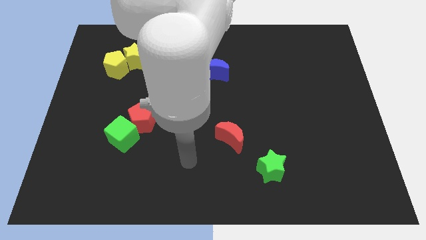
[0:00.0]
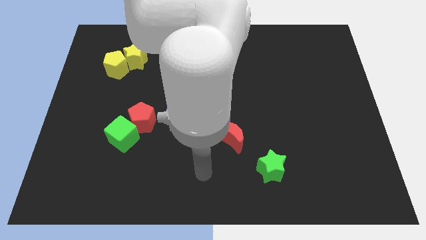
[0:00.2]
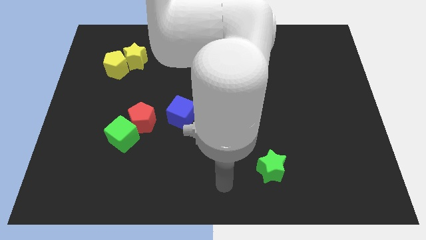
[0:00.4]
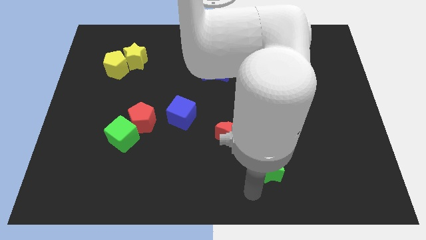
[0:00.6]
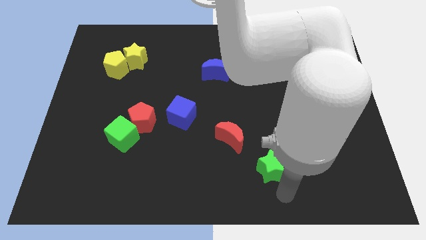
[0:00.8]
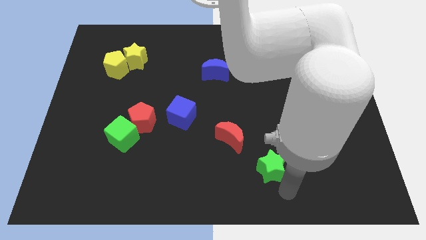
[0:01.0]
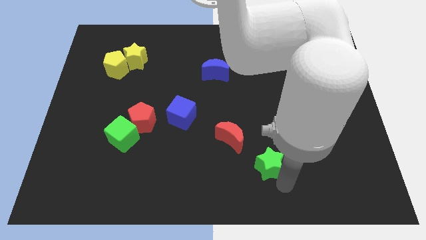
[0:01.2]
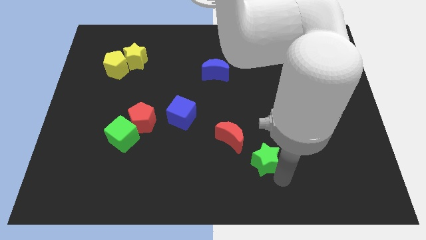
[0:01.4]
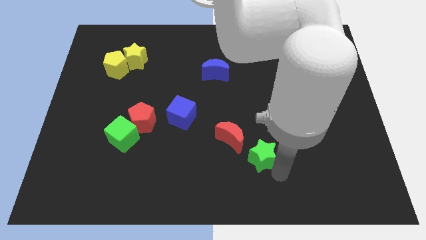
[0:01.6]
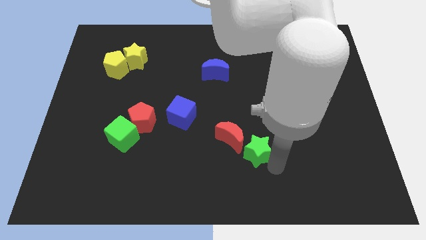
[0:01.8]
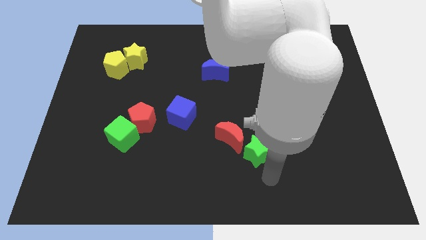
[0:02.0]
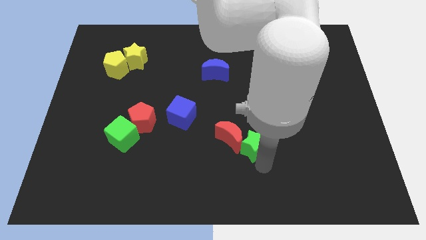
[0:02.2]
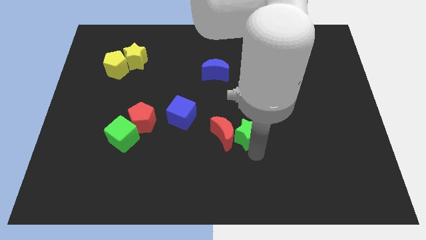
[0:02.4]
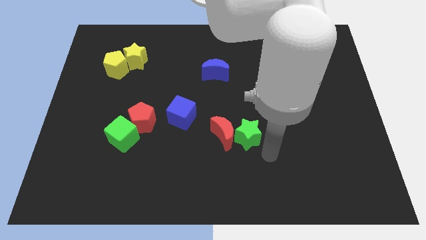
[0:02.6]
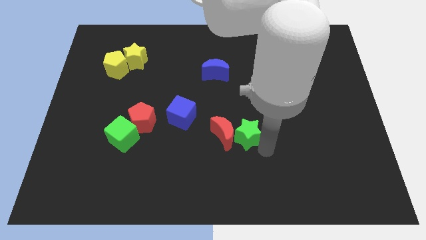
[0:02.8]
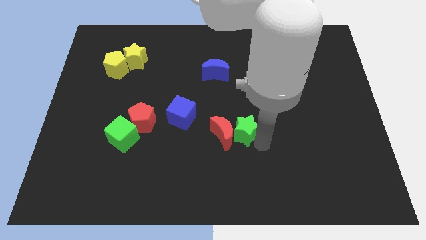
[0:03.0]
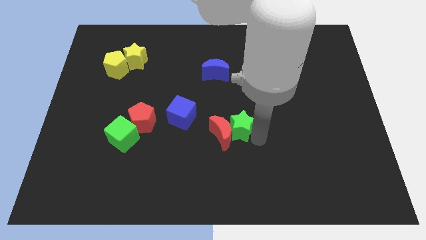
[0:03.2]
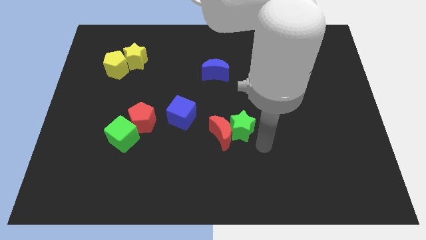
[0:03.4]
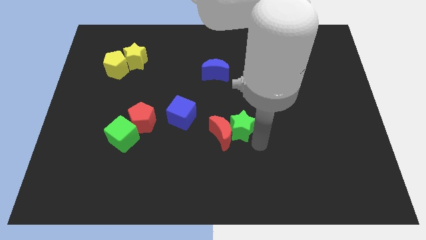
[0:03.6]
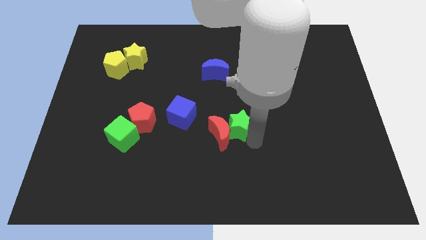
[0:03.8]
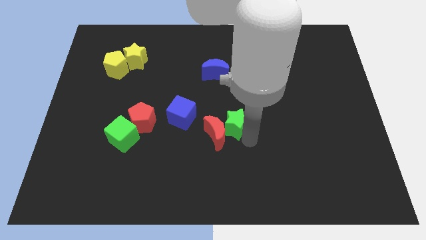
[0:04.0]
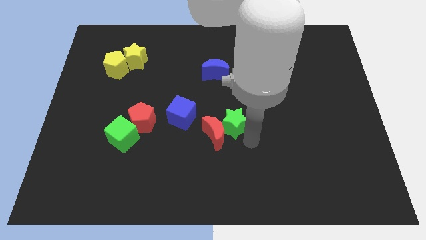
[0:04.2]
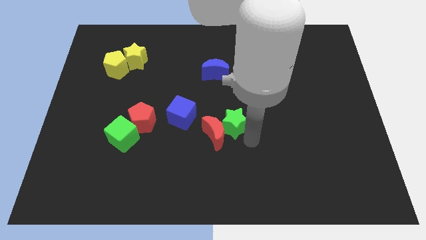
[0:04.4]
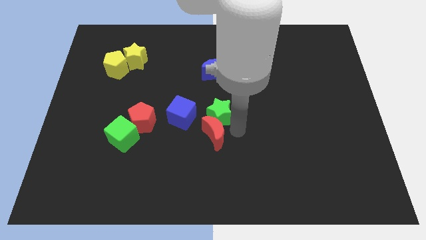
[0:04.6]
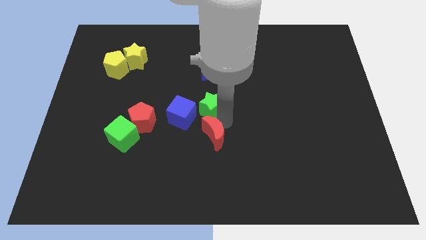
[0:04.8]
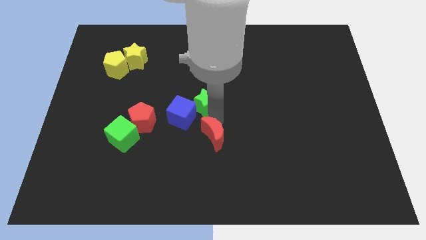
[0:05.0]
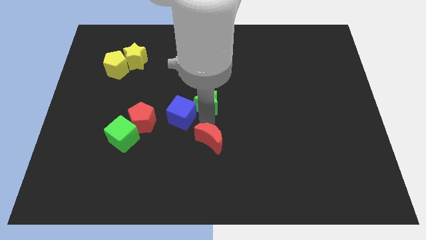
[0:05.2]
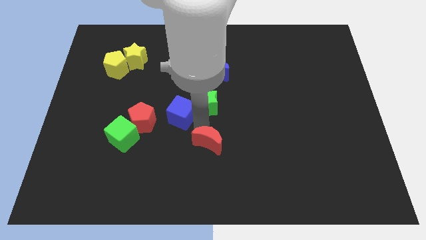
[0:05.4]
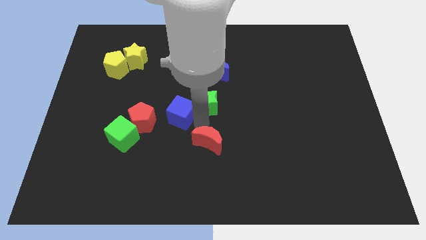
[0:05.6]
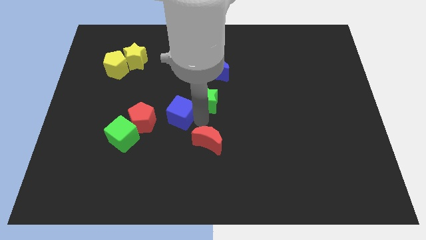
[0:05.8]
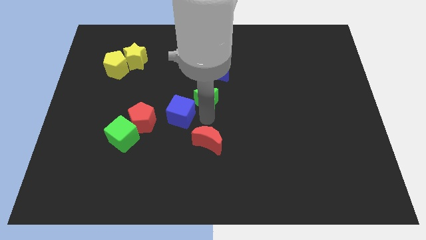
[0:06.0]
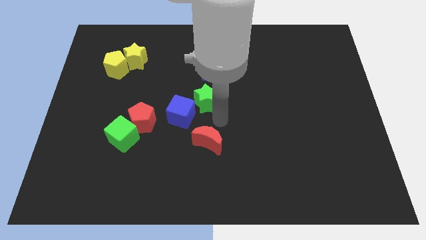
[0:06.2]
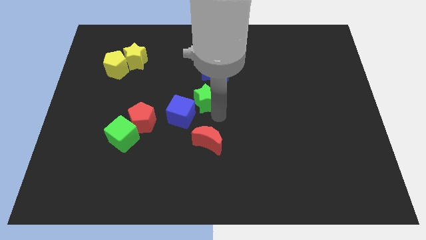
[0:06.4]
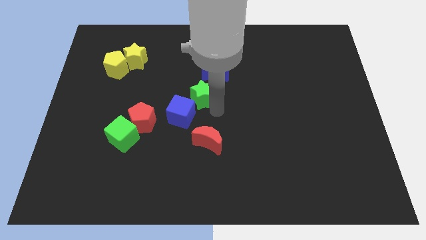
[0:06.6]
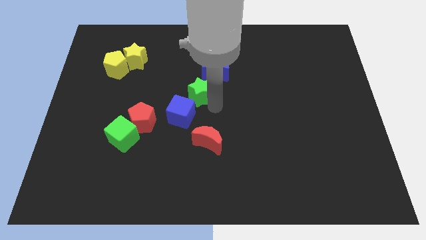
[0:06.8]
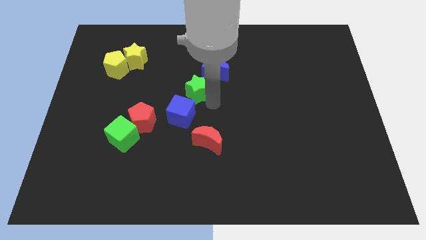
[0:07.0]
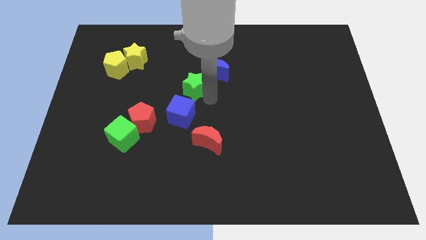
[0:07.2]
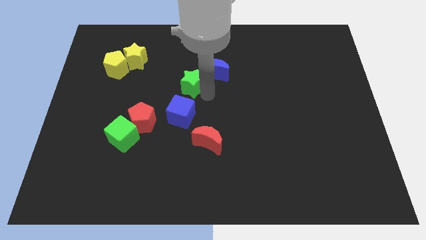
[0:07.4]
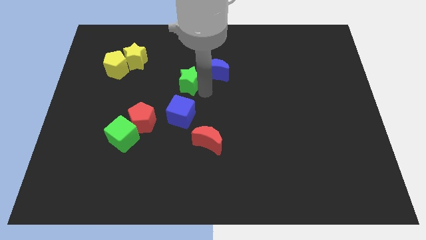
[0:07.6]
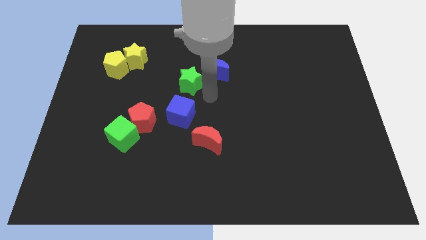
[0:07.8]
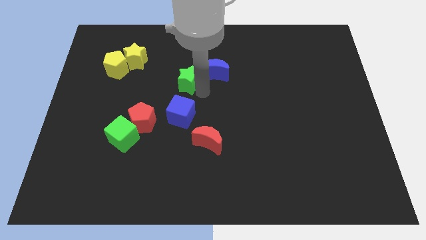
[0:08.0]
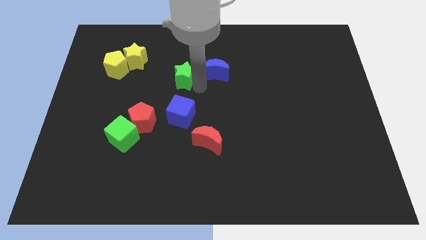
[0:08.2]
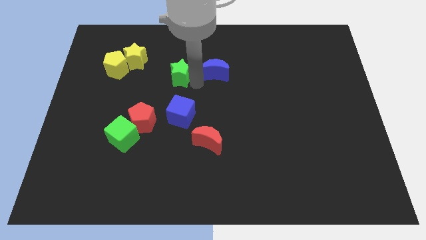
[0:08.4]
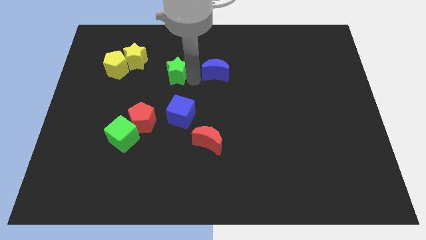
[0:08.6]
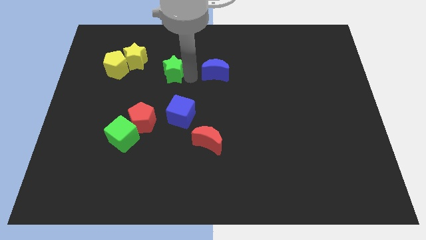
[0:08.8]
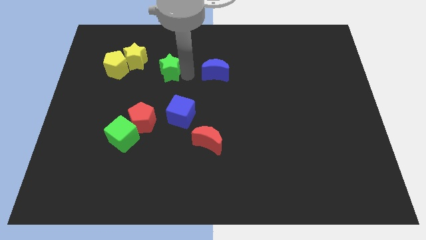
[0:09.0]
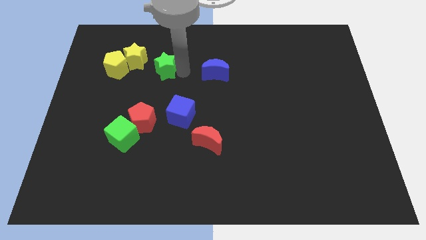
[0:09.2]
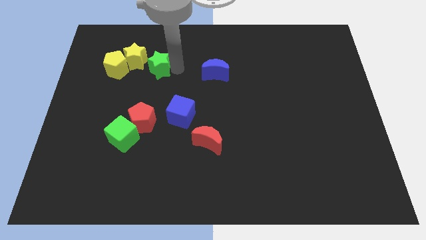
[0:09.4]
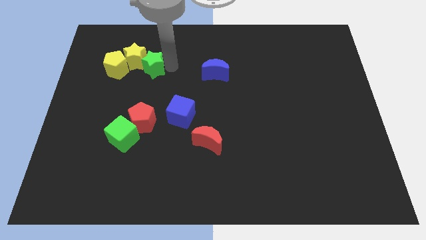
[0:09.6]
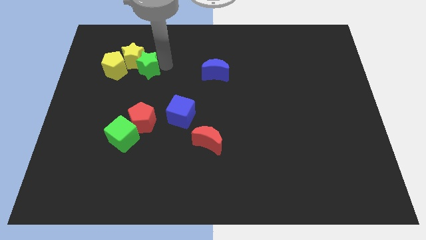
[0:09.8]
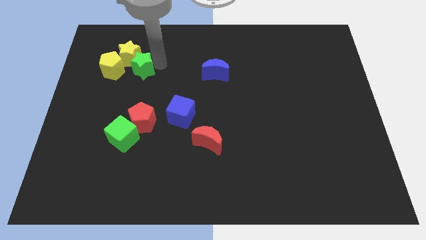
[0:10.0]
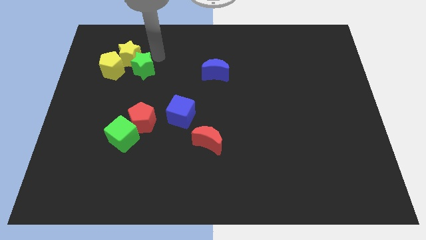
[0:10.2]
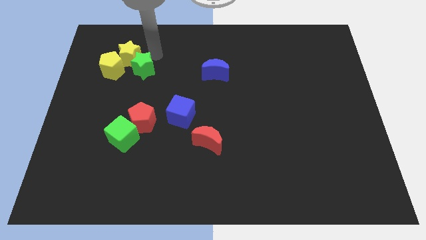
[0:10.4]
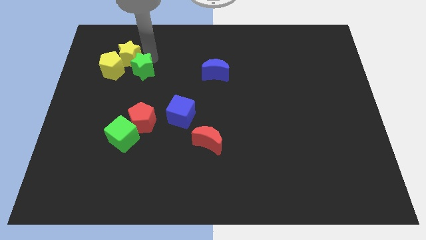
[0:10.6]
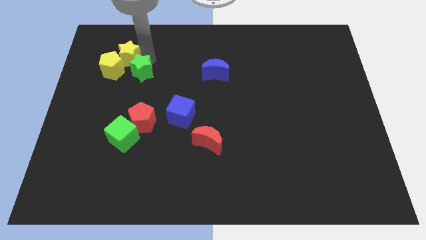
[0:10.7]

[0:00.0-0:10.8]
slide the green star to the bottom right of the yellow pentagon

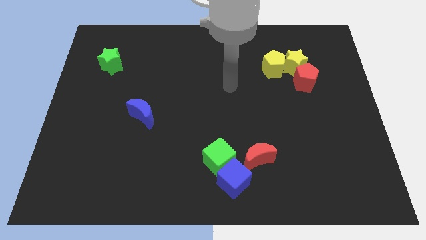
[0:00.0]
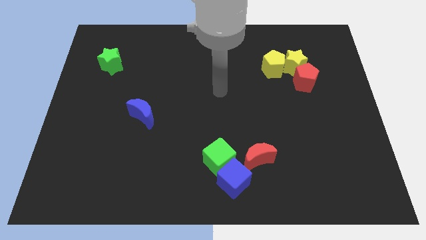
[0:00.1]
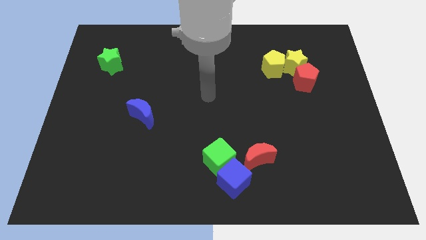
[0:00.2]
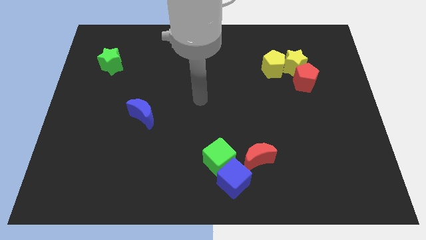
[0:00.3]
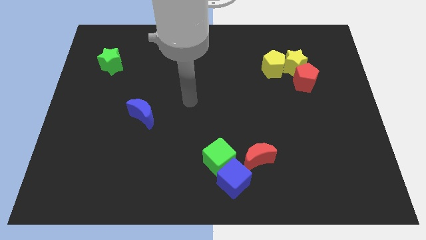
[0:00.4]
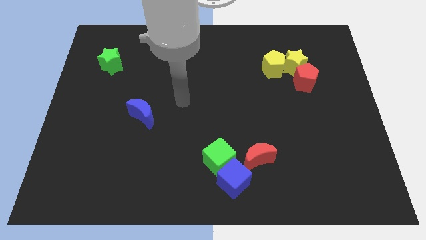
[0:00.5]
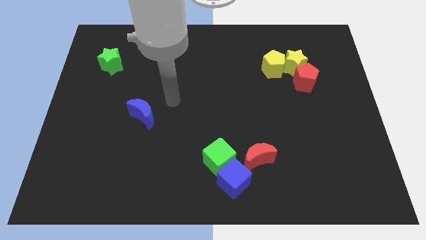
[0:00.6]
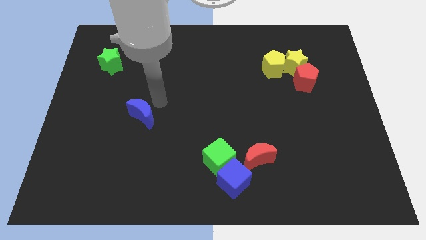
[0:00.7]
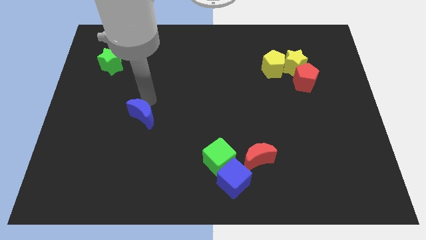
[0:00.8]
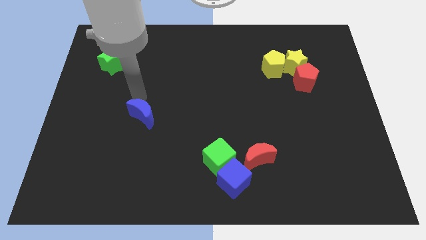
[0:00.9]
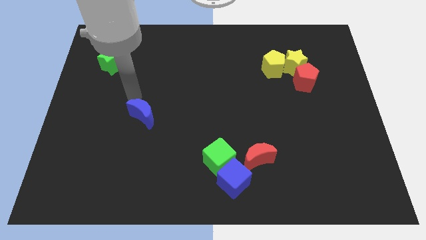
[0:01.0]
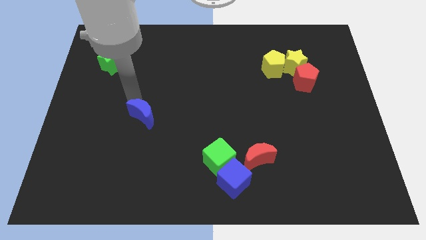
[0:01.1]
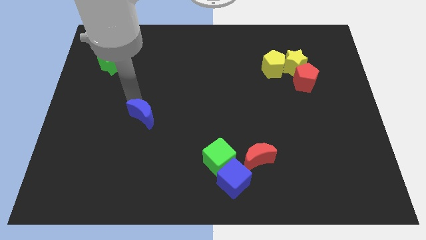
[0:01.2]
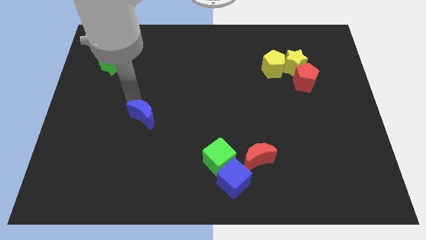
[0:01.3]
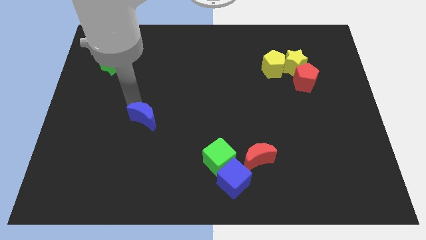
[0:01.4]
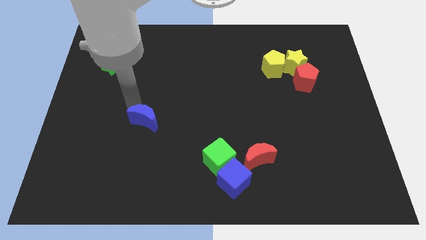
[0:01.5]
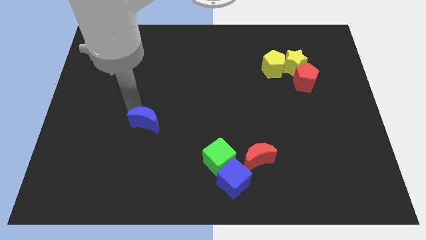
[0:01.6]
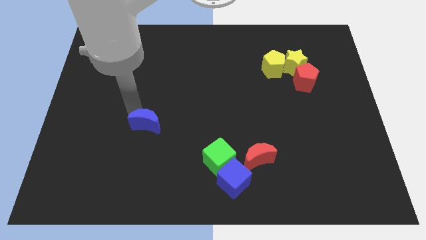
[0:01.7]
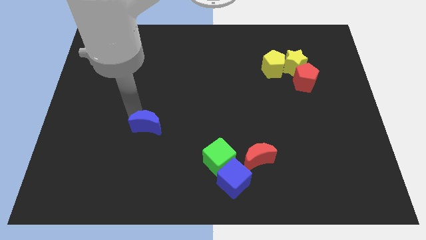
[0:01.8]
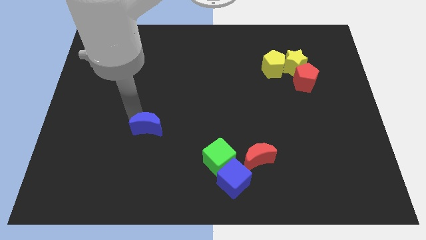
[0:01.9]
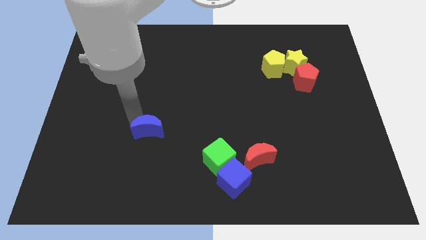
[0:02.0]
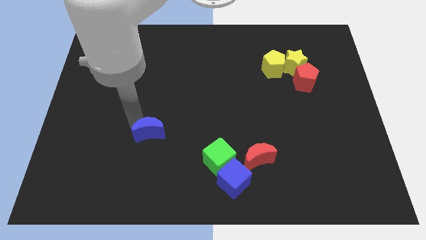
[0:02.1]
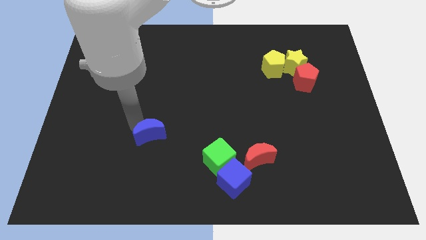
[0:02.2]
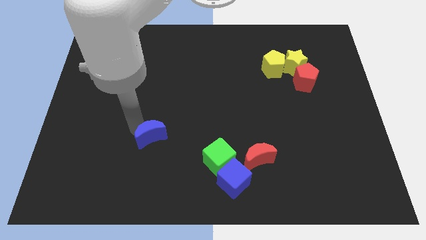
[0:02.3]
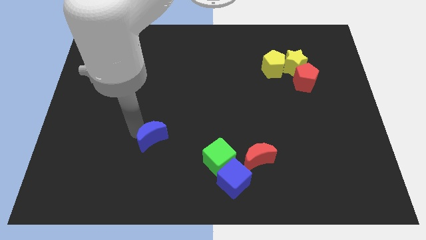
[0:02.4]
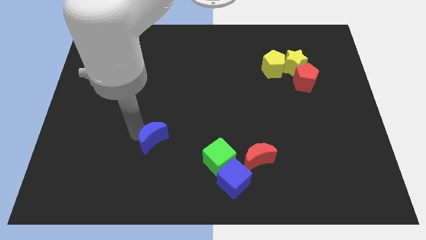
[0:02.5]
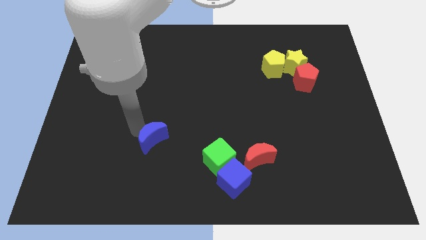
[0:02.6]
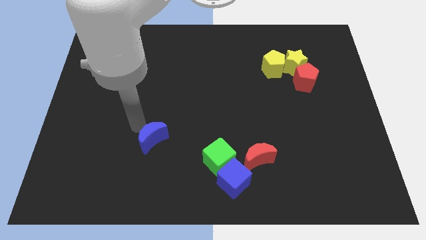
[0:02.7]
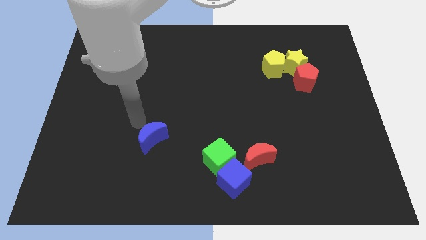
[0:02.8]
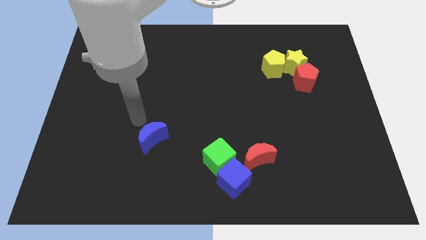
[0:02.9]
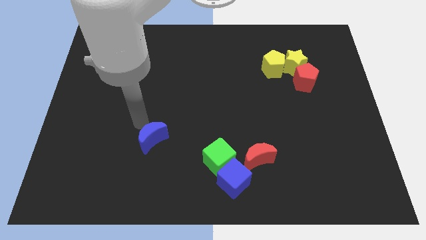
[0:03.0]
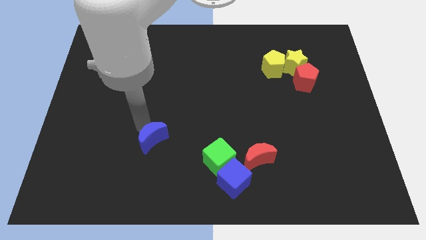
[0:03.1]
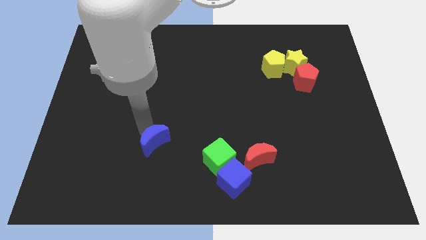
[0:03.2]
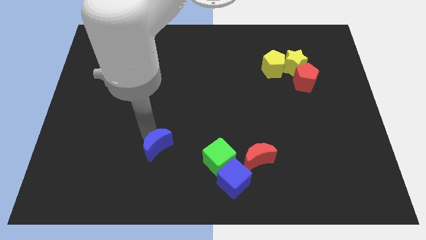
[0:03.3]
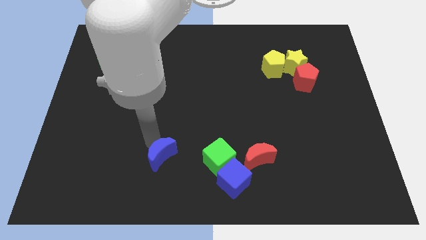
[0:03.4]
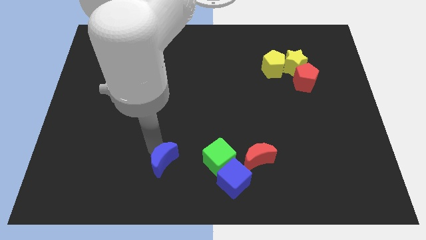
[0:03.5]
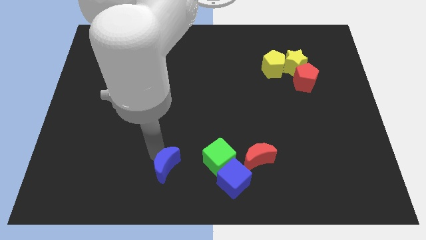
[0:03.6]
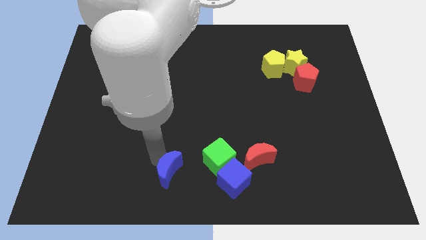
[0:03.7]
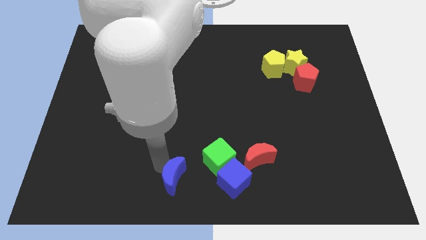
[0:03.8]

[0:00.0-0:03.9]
put the blue moon to the bottom left of the green cube
